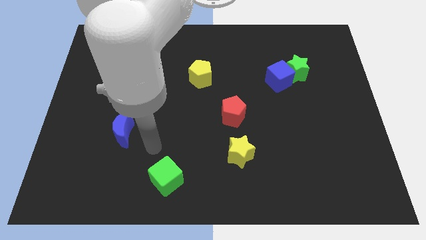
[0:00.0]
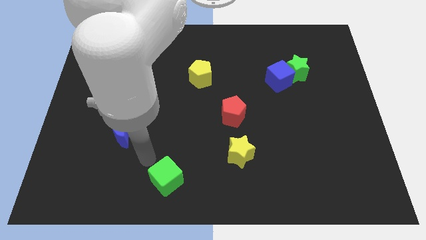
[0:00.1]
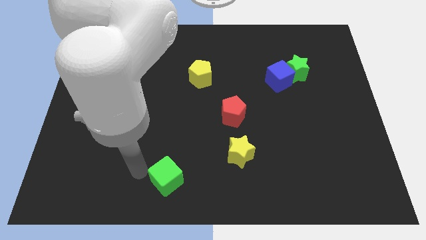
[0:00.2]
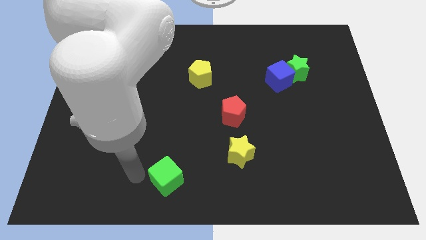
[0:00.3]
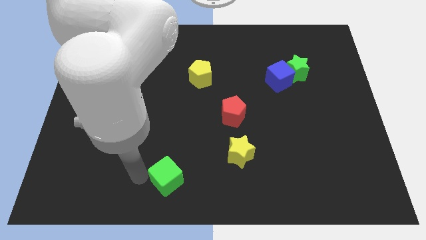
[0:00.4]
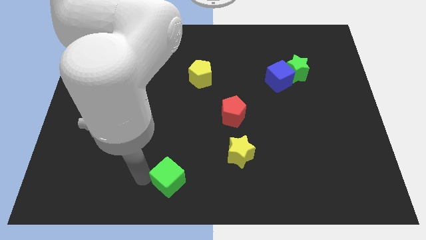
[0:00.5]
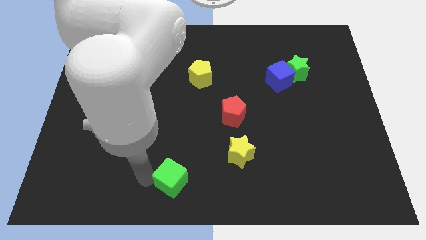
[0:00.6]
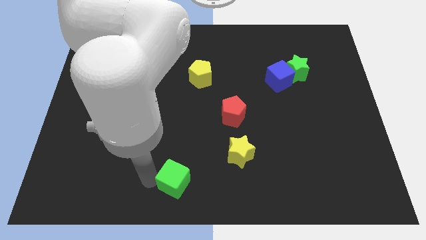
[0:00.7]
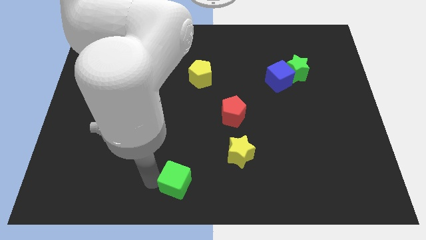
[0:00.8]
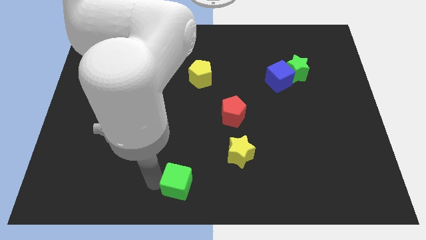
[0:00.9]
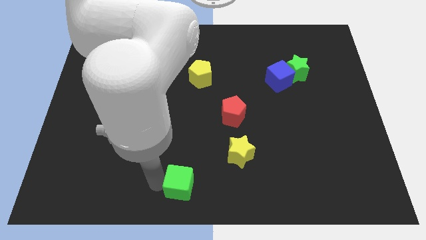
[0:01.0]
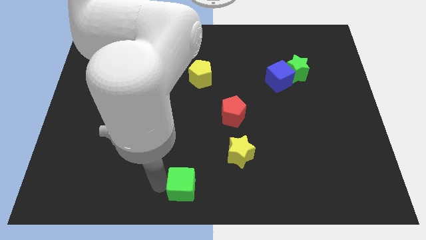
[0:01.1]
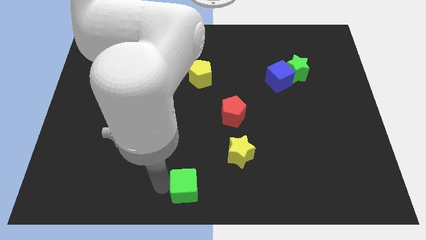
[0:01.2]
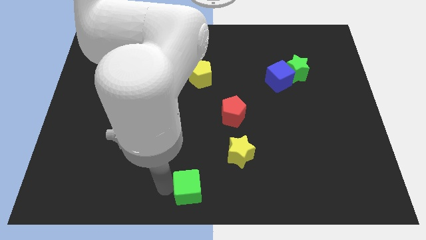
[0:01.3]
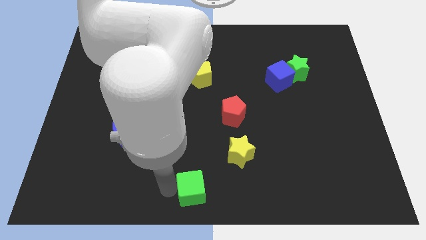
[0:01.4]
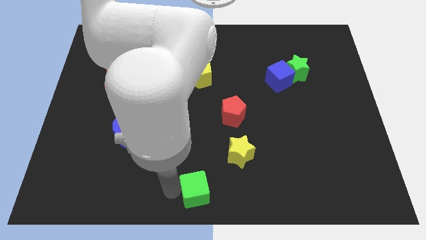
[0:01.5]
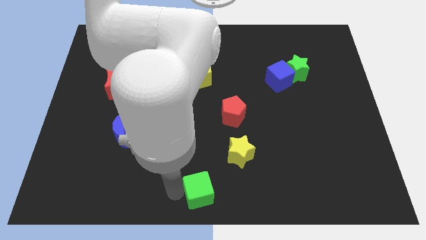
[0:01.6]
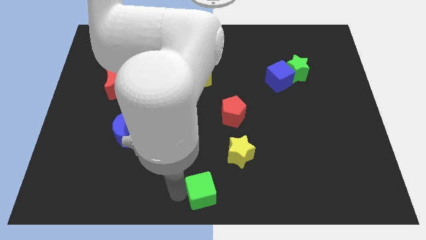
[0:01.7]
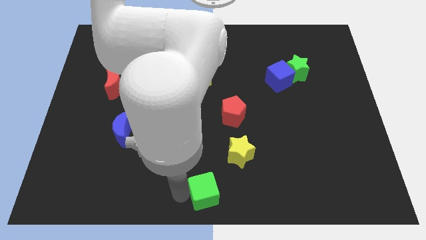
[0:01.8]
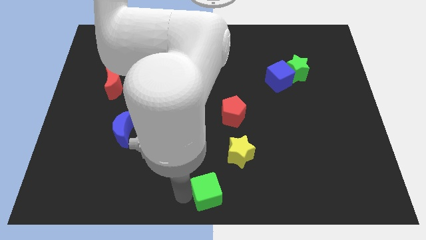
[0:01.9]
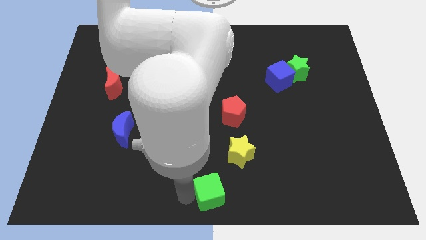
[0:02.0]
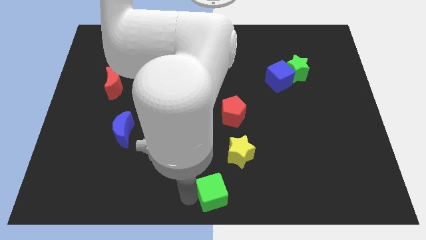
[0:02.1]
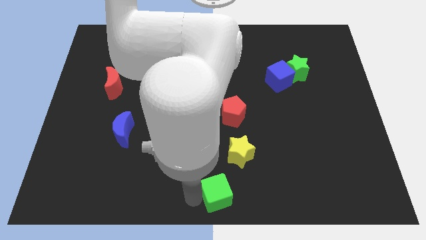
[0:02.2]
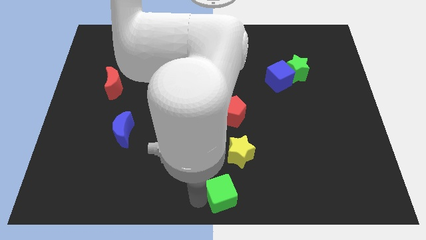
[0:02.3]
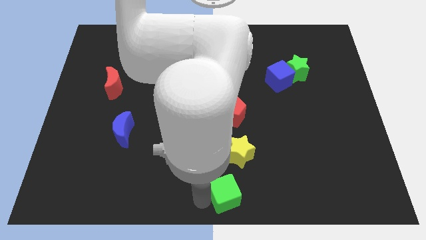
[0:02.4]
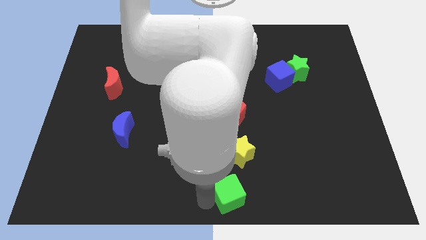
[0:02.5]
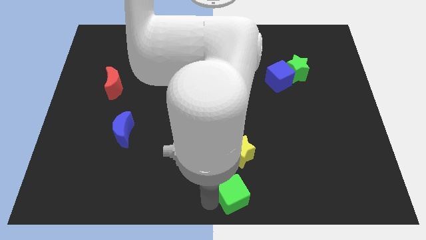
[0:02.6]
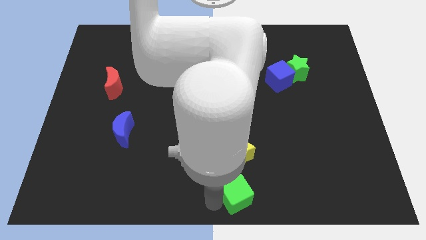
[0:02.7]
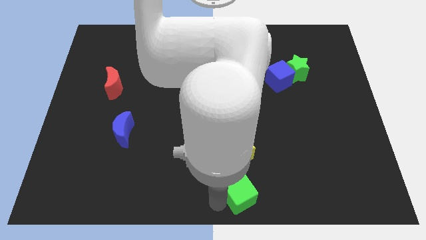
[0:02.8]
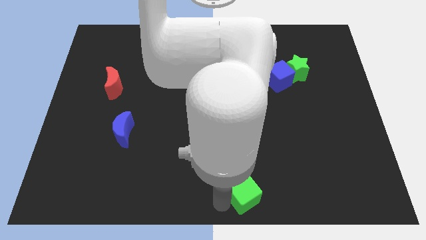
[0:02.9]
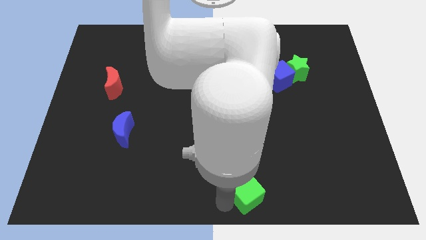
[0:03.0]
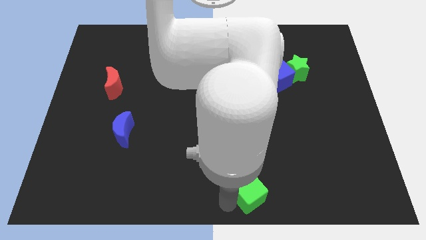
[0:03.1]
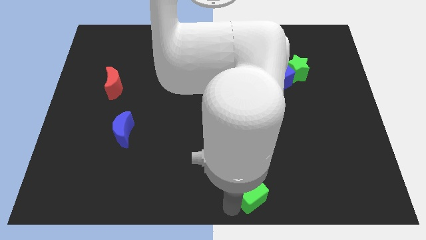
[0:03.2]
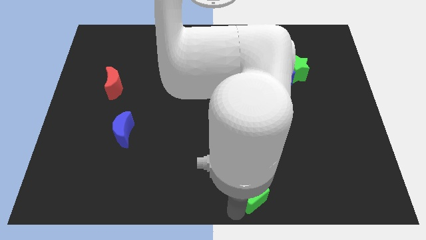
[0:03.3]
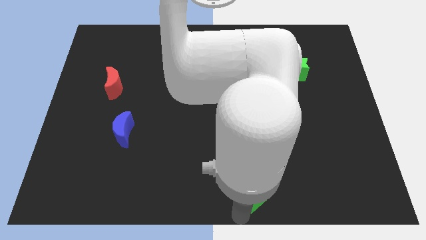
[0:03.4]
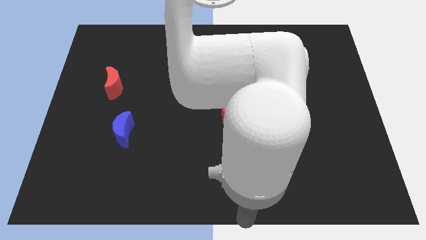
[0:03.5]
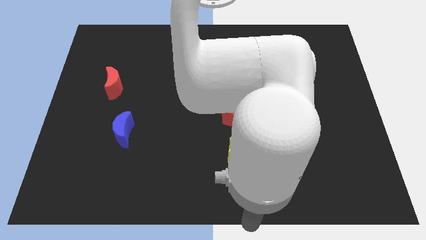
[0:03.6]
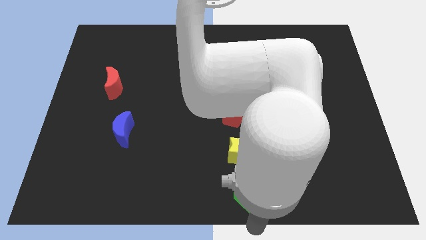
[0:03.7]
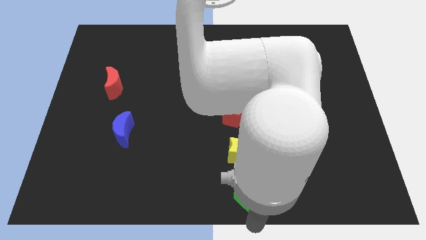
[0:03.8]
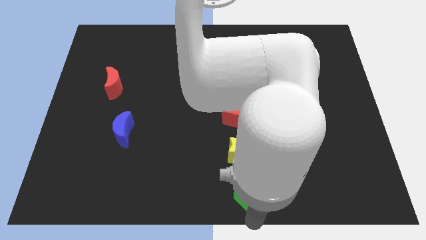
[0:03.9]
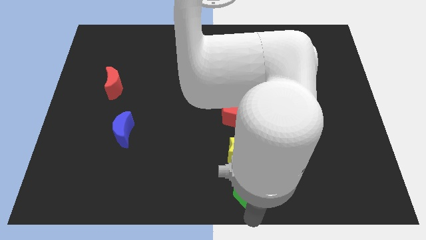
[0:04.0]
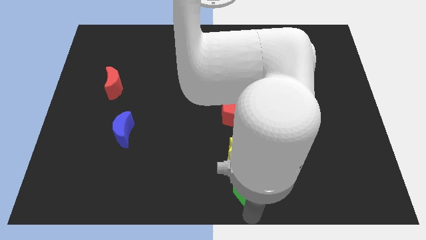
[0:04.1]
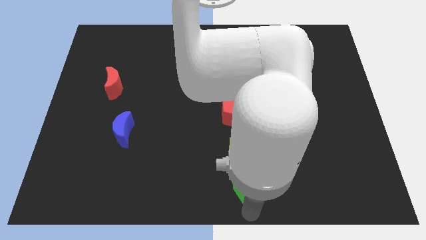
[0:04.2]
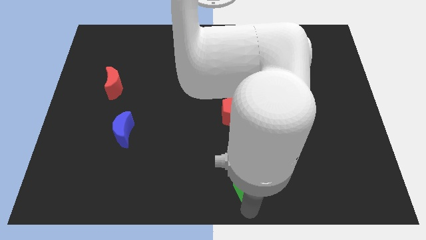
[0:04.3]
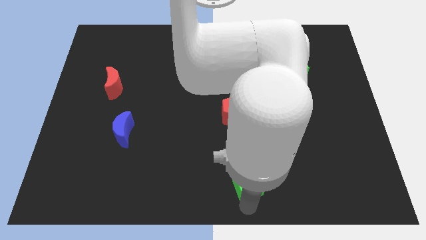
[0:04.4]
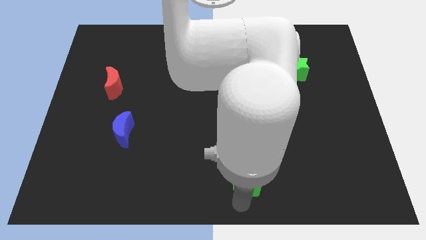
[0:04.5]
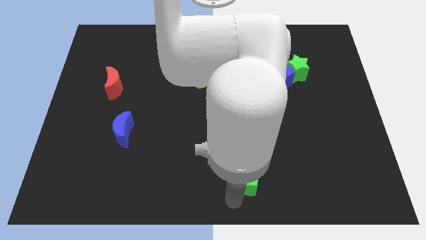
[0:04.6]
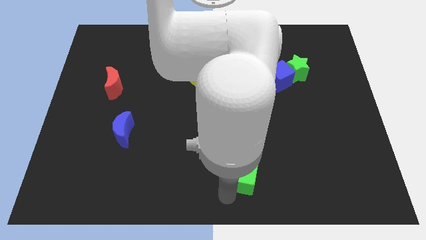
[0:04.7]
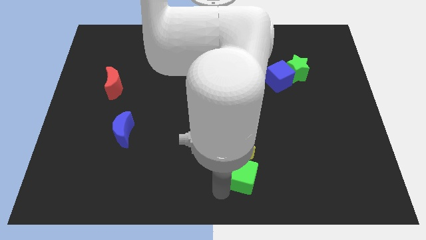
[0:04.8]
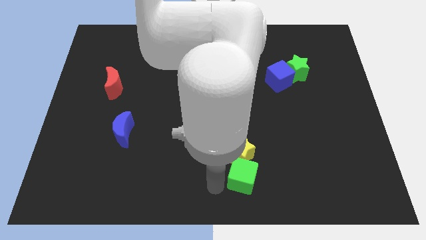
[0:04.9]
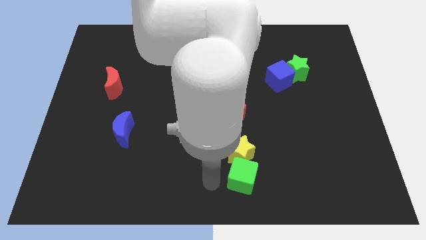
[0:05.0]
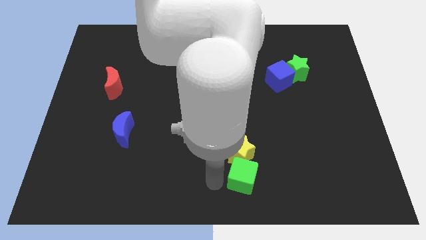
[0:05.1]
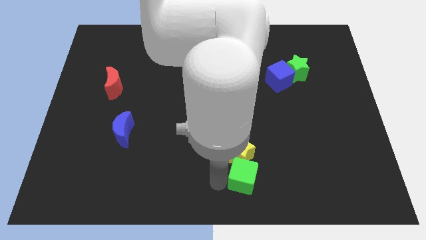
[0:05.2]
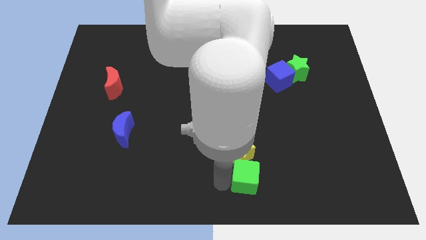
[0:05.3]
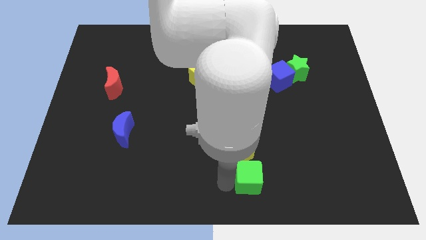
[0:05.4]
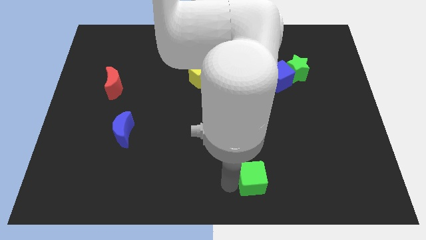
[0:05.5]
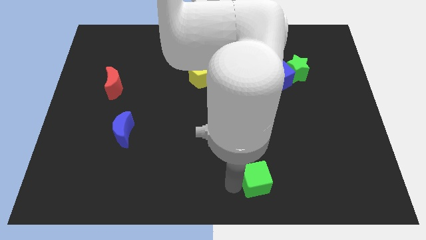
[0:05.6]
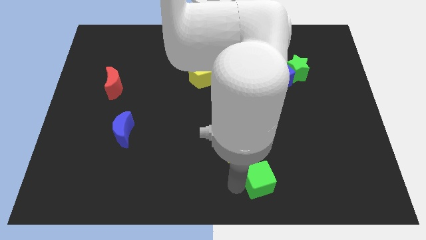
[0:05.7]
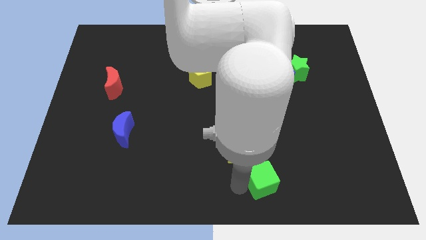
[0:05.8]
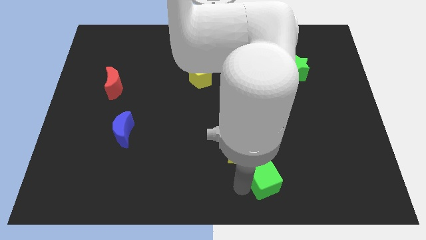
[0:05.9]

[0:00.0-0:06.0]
move the green cube to the right

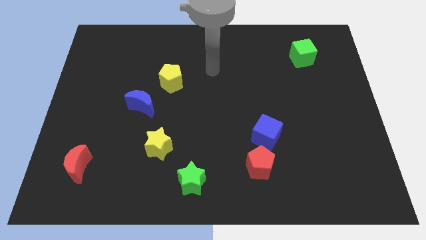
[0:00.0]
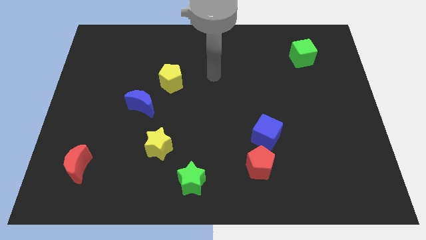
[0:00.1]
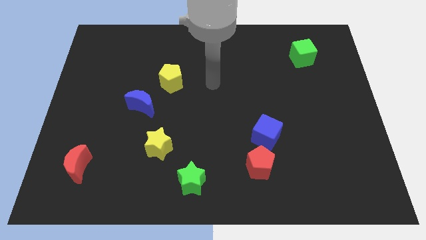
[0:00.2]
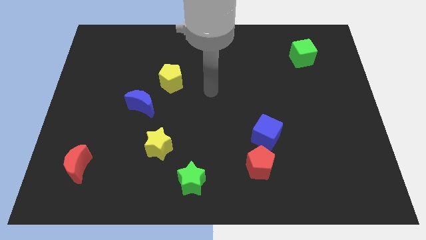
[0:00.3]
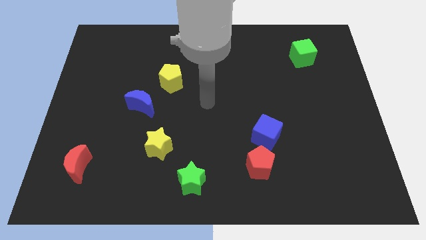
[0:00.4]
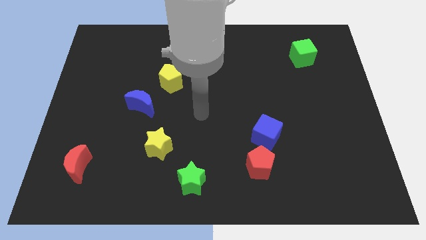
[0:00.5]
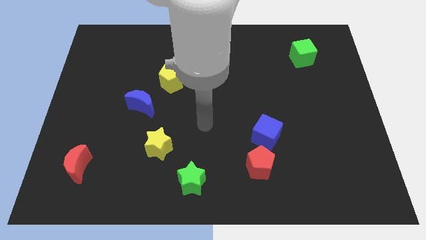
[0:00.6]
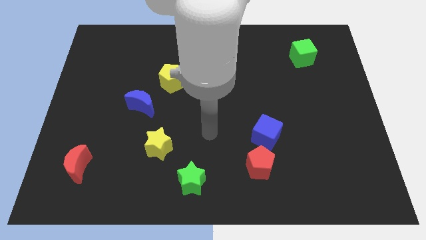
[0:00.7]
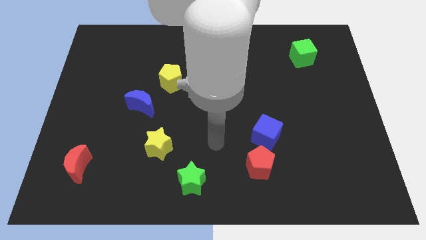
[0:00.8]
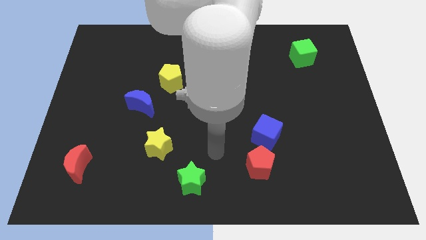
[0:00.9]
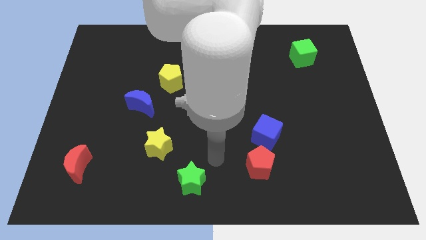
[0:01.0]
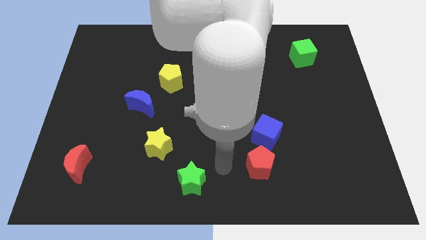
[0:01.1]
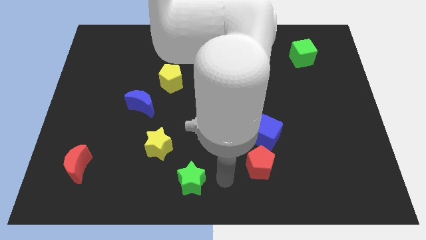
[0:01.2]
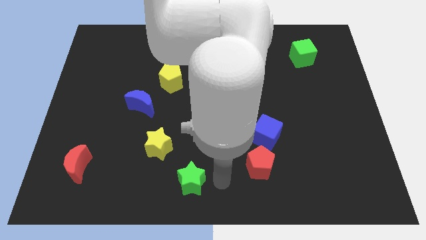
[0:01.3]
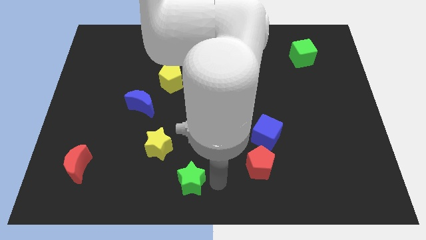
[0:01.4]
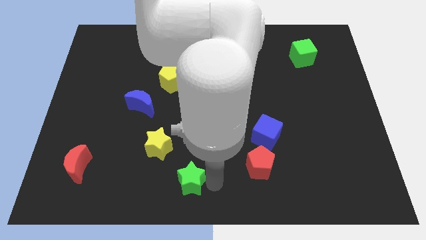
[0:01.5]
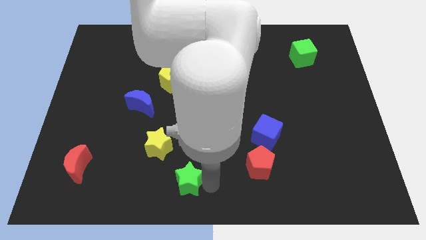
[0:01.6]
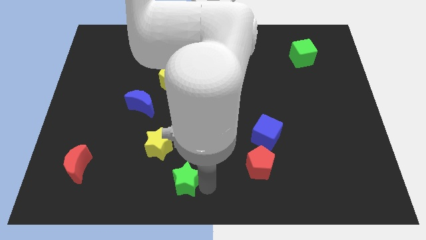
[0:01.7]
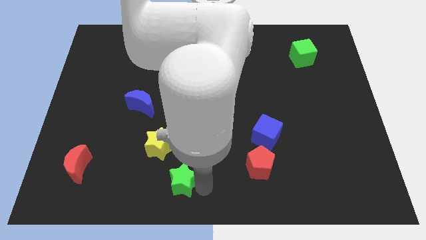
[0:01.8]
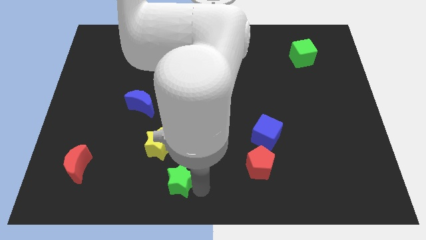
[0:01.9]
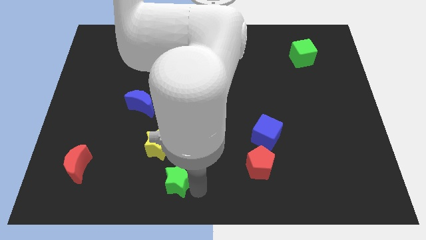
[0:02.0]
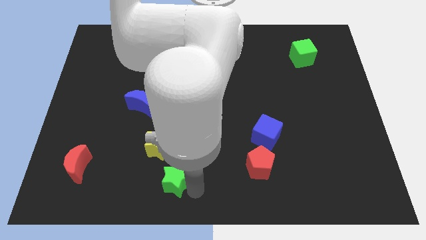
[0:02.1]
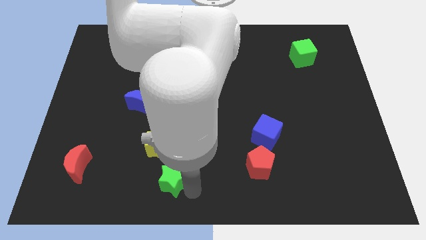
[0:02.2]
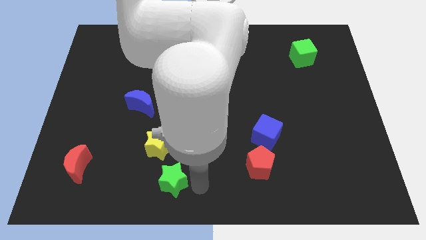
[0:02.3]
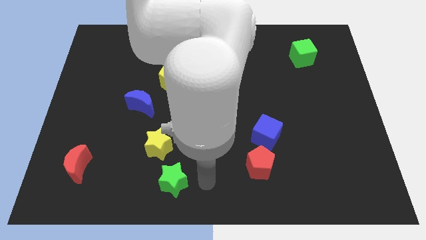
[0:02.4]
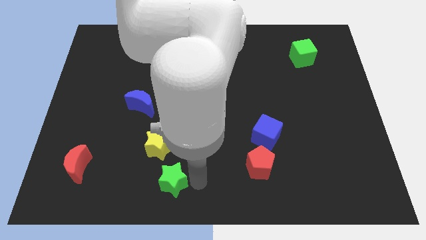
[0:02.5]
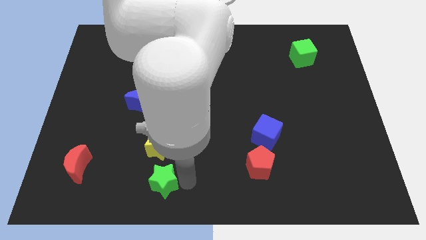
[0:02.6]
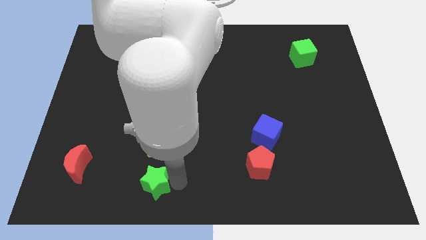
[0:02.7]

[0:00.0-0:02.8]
move the green star a little to the left
